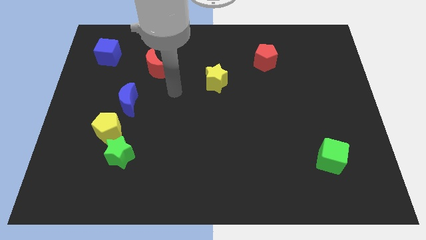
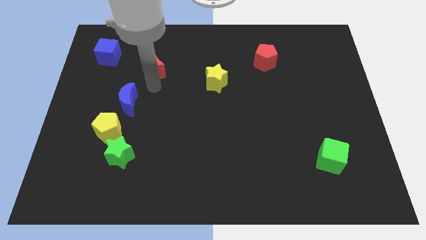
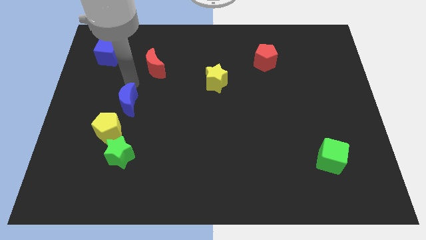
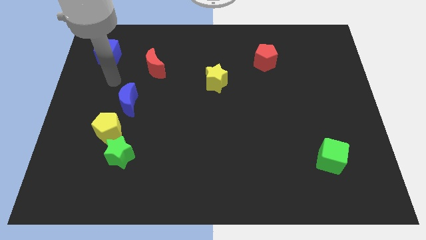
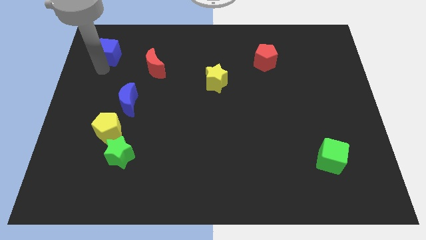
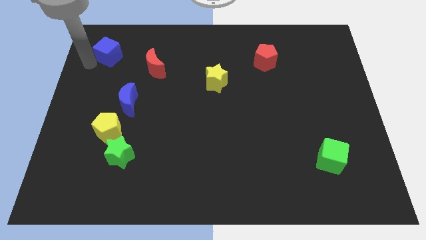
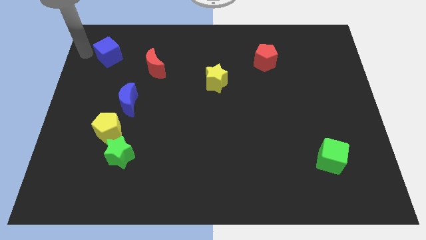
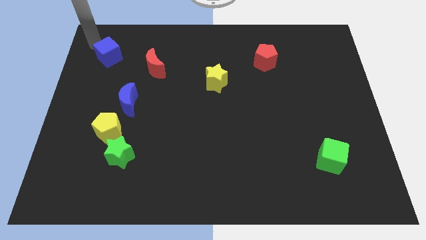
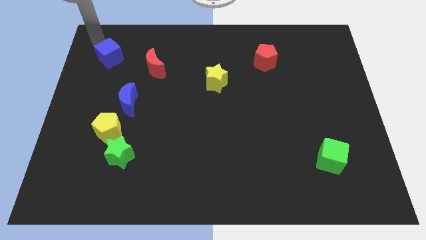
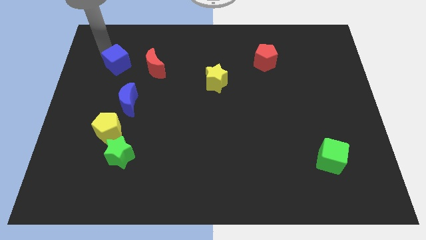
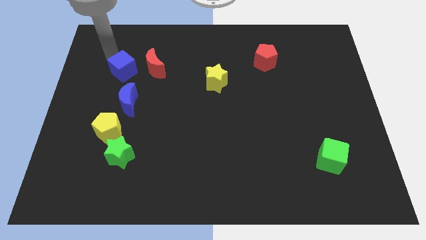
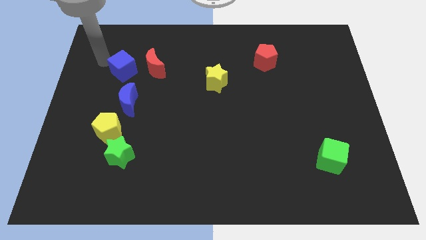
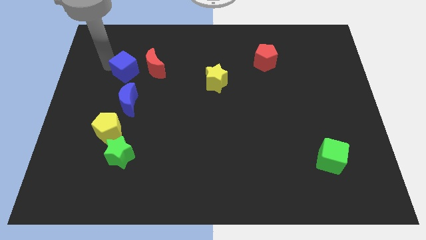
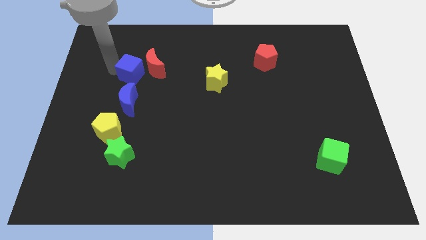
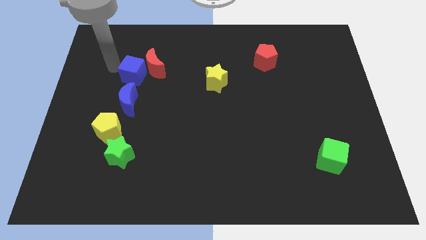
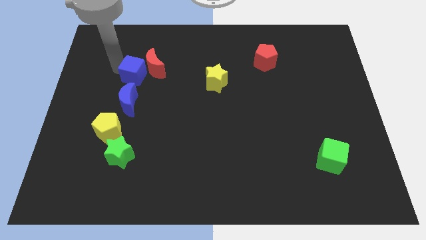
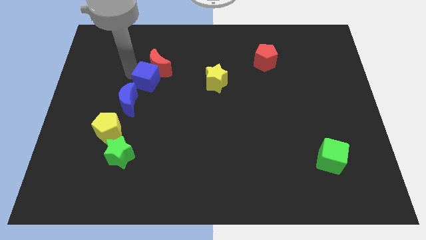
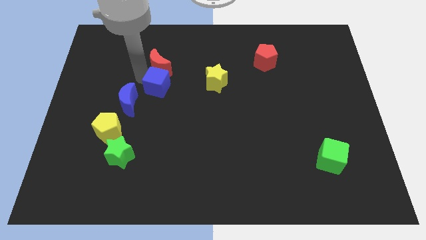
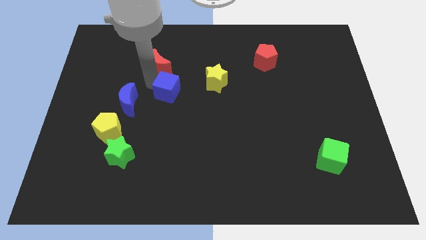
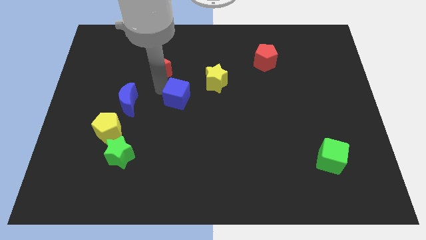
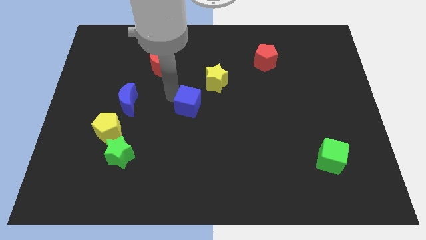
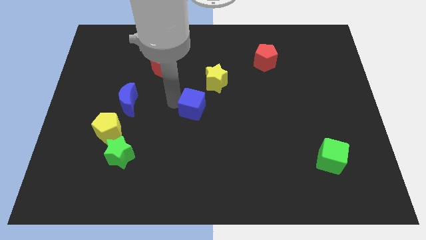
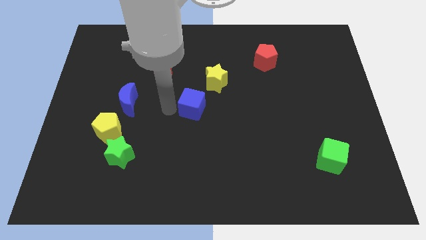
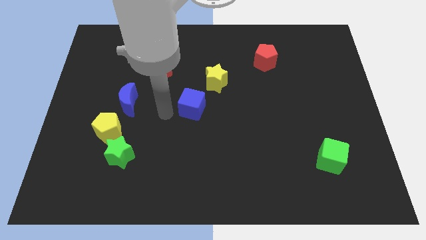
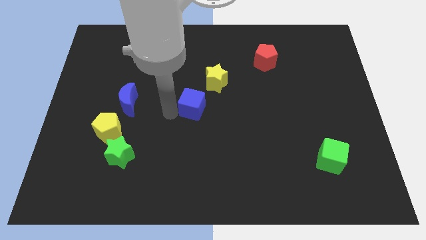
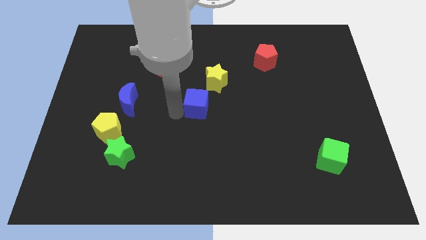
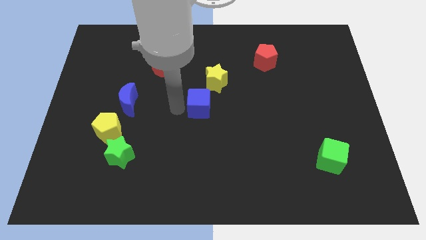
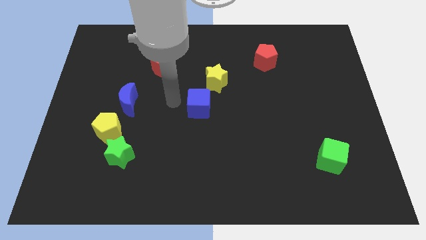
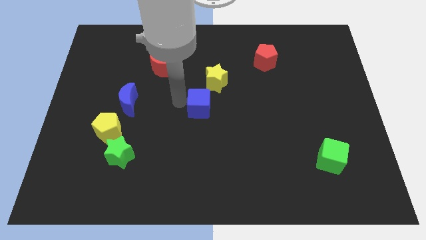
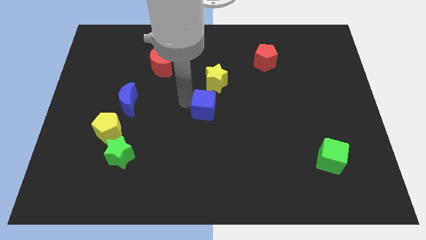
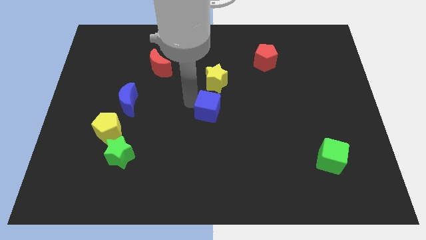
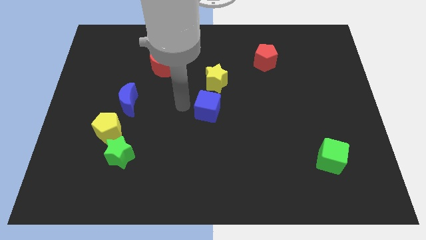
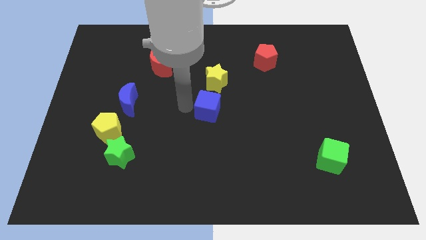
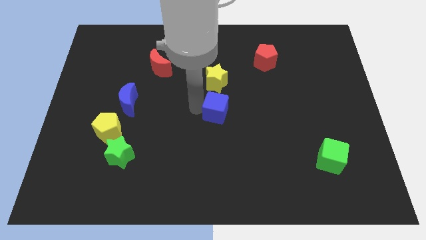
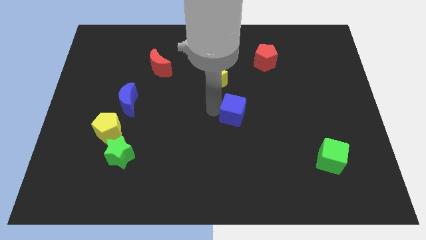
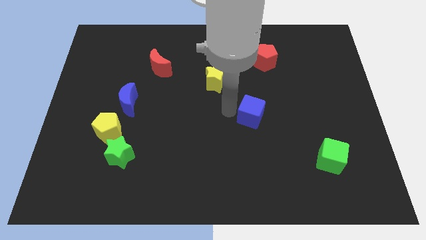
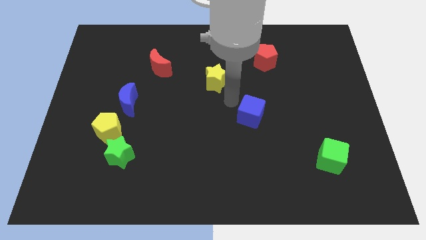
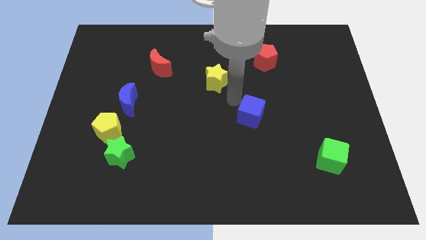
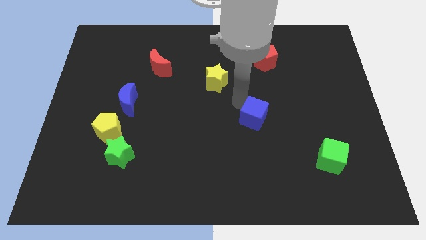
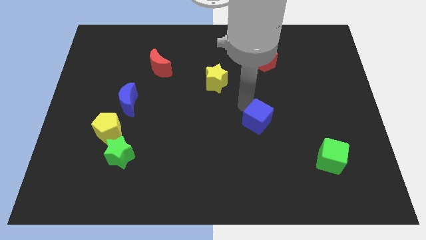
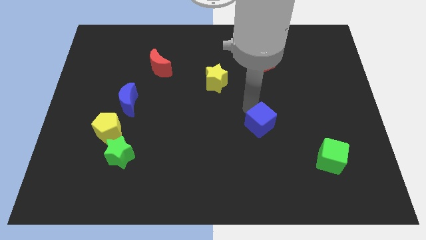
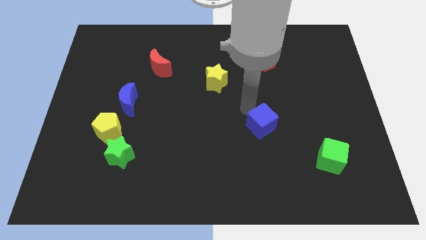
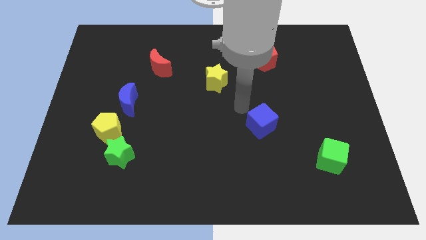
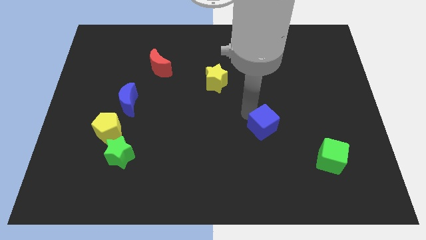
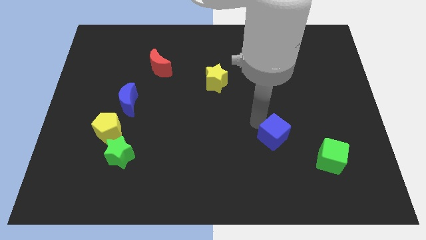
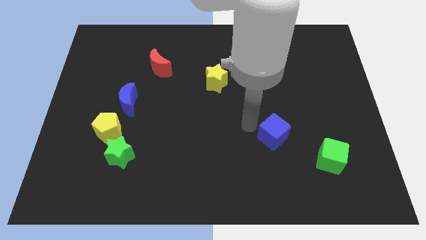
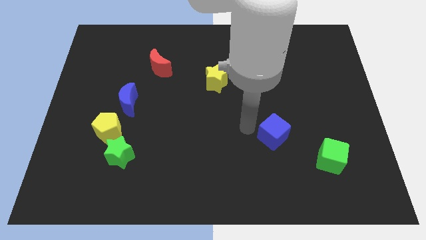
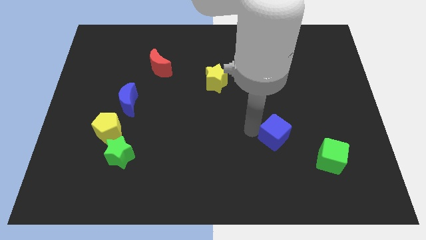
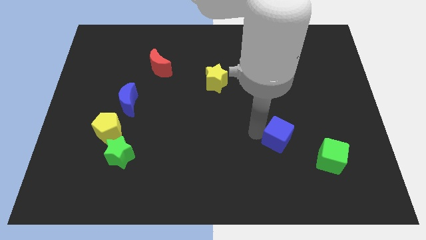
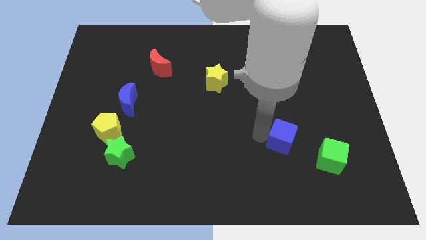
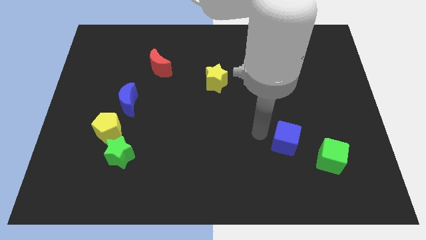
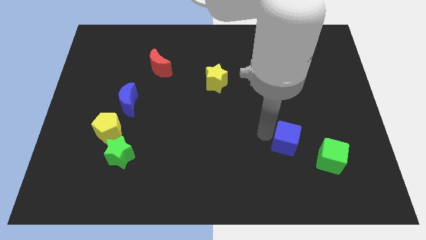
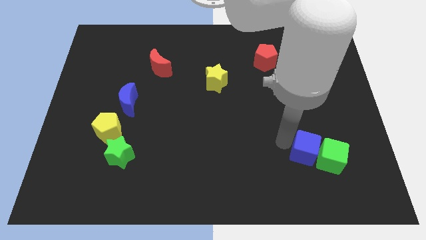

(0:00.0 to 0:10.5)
put the blue cube close to the green cube

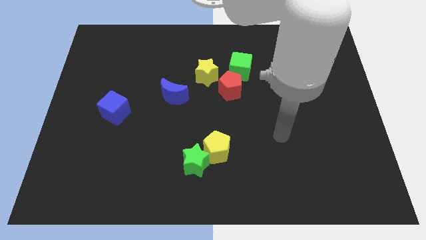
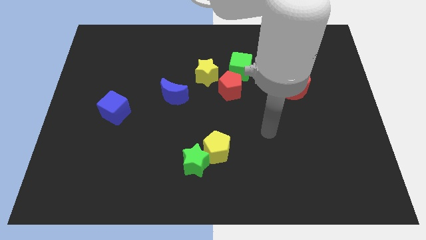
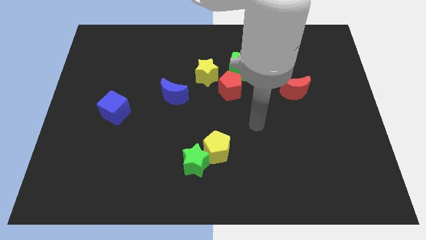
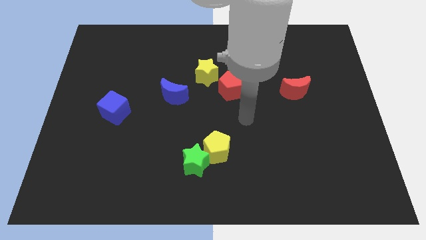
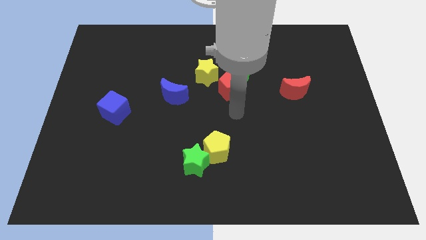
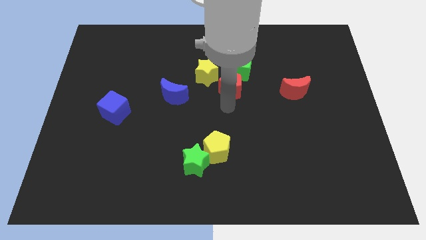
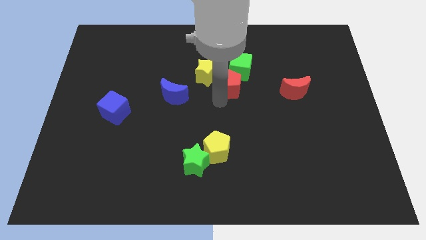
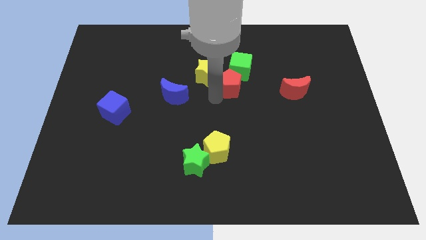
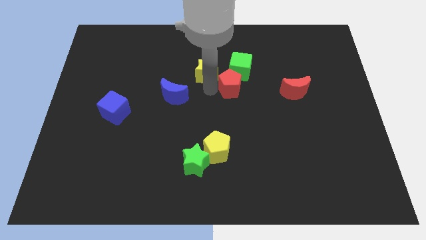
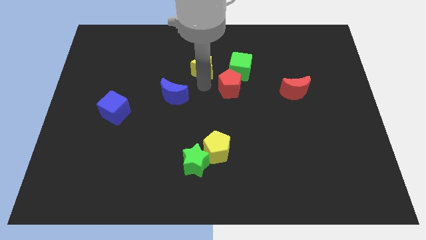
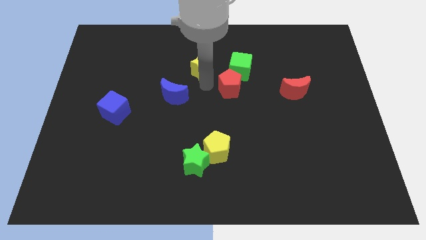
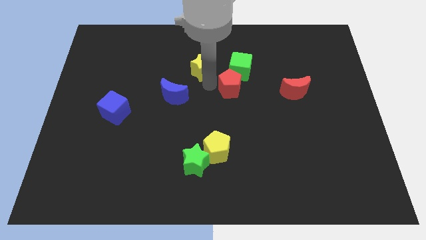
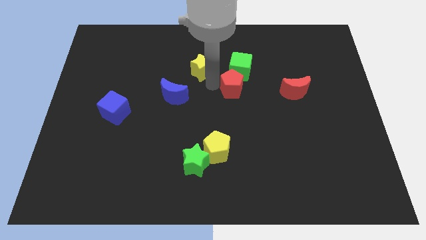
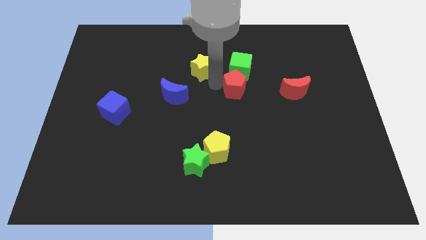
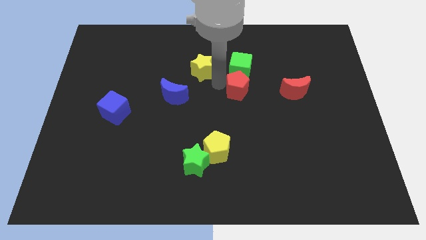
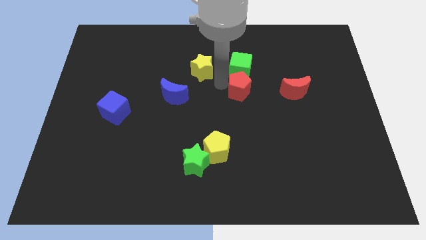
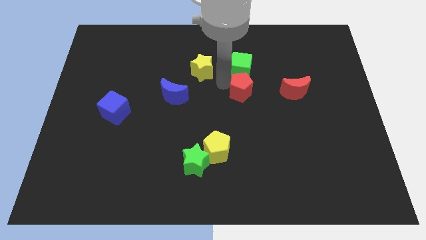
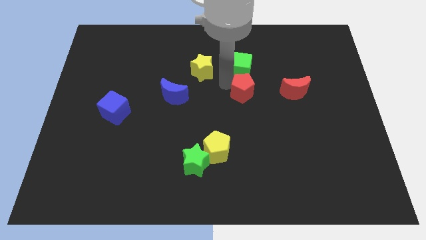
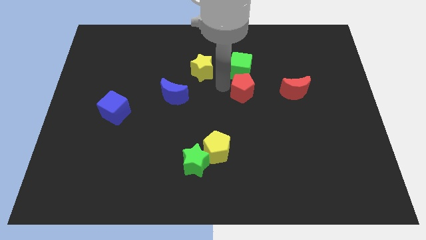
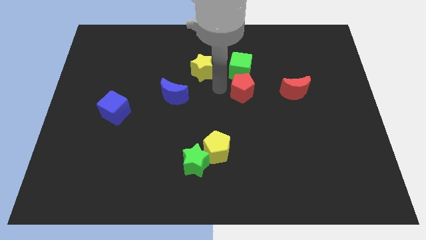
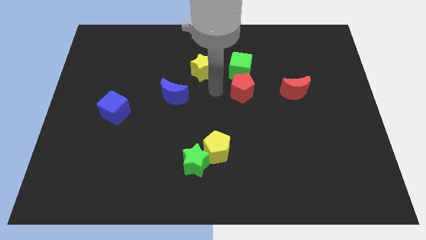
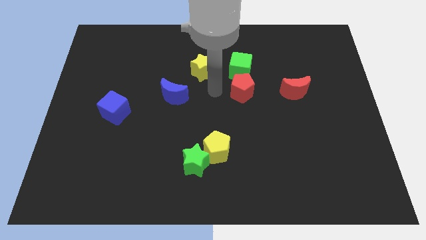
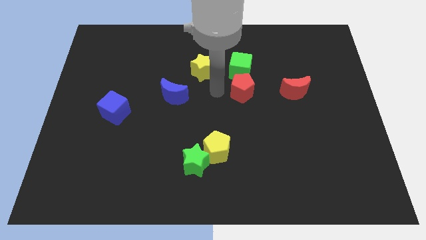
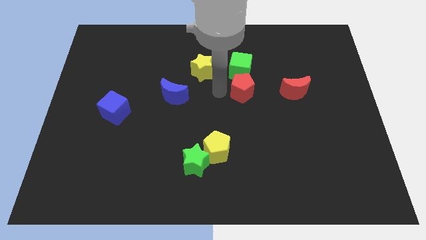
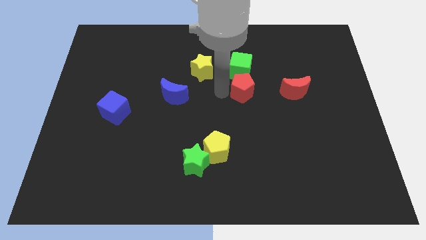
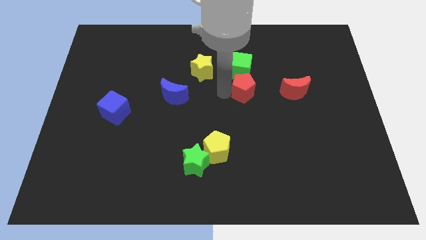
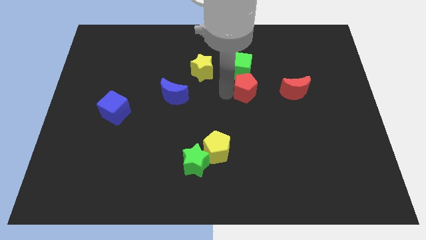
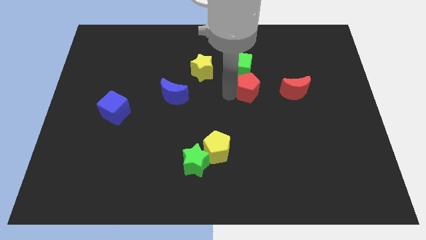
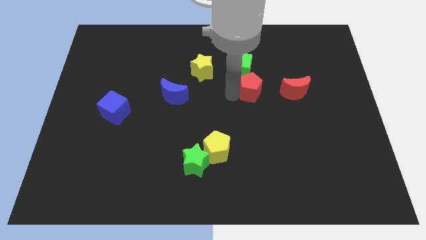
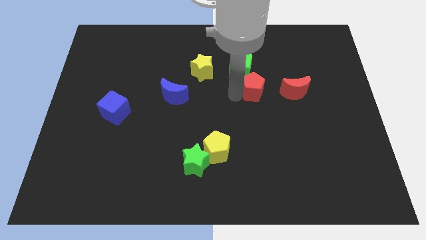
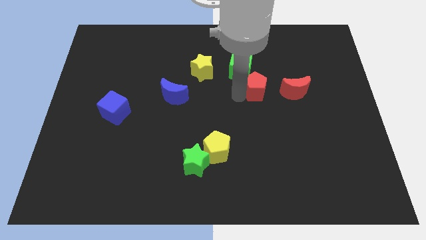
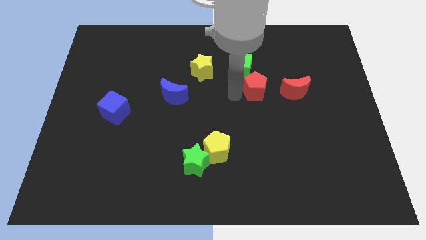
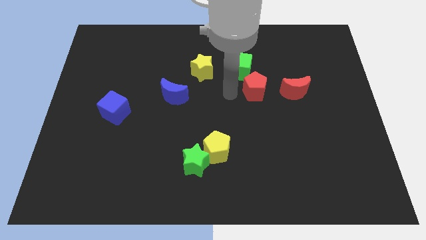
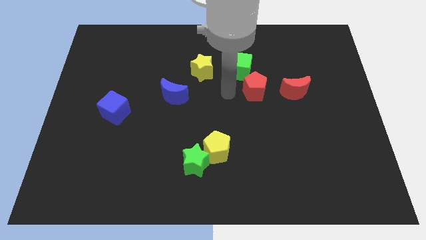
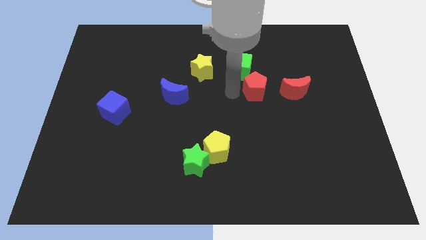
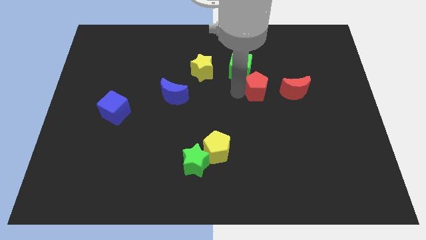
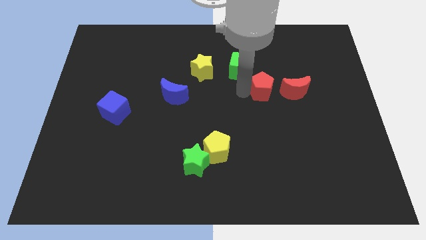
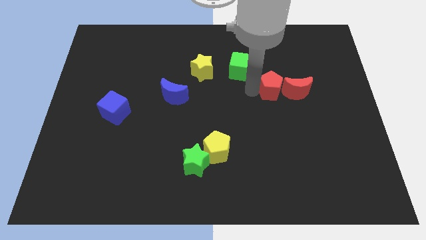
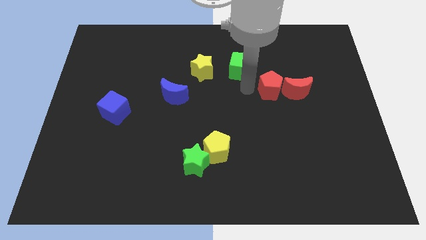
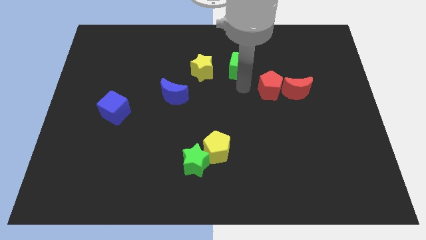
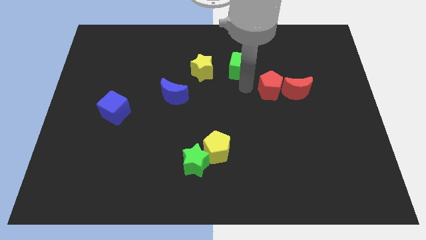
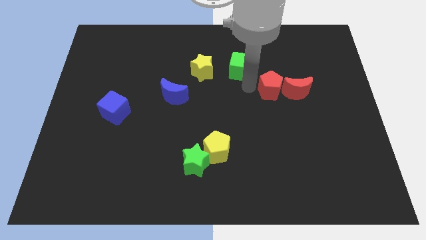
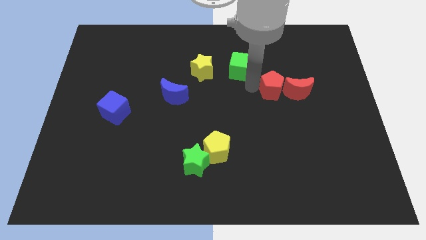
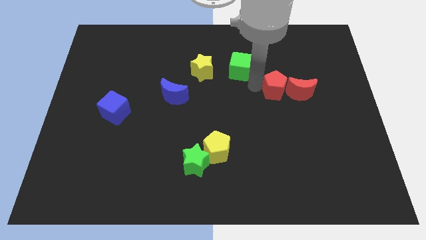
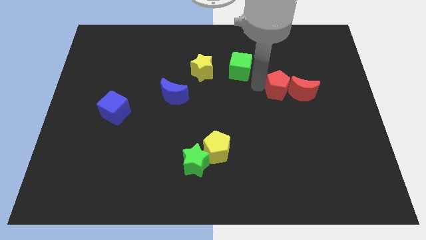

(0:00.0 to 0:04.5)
move the red pentagon close to the red moon
